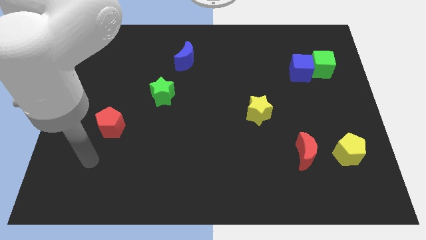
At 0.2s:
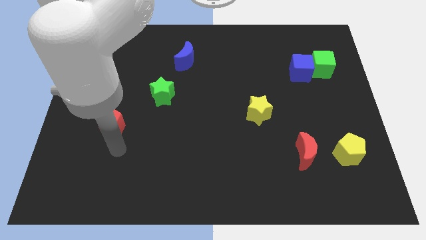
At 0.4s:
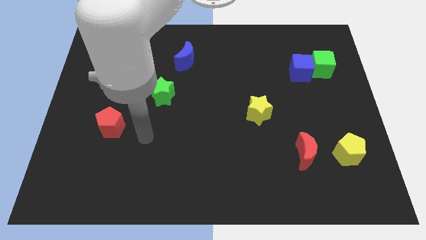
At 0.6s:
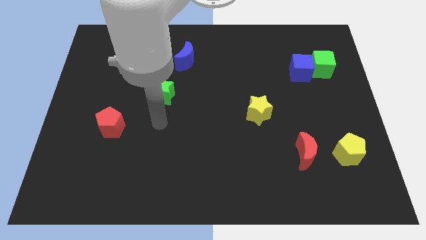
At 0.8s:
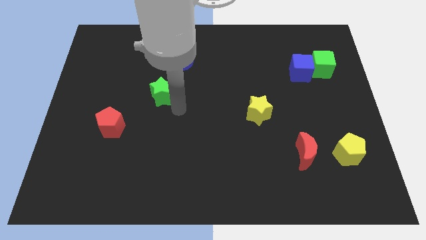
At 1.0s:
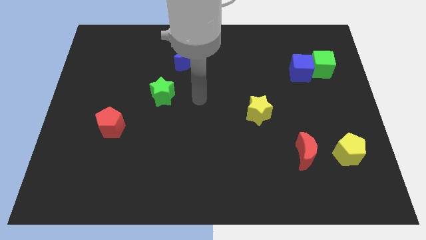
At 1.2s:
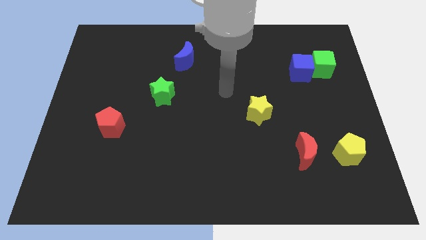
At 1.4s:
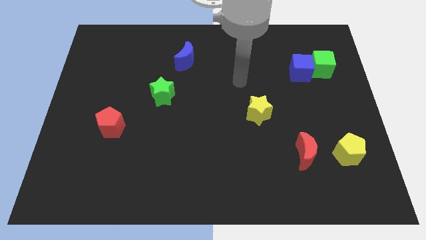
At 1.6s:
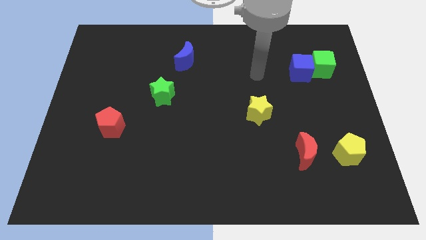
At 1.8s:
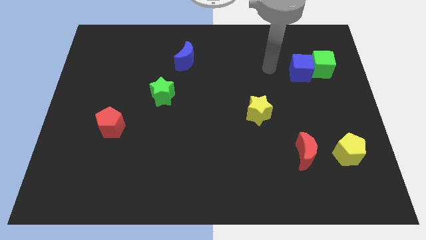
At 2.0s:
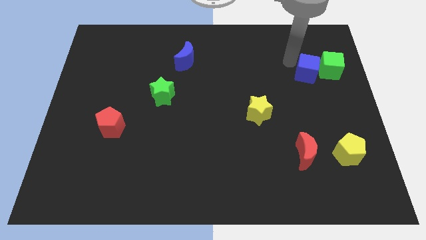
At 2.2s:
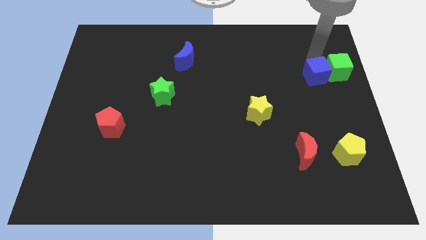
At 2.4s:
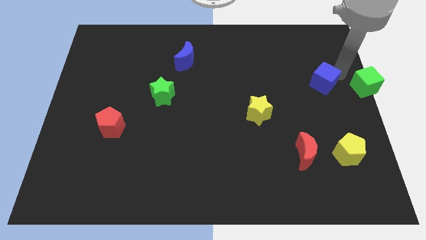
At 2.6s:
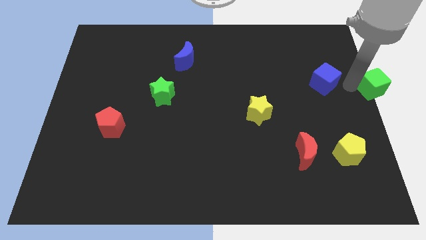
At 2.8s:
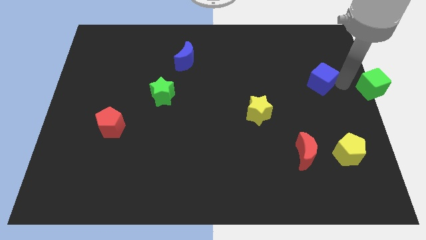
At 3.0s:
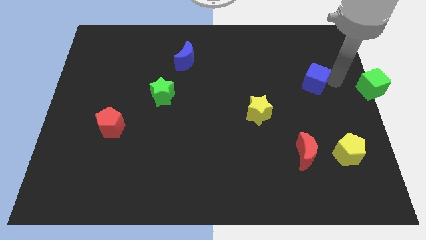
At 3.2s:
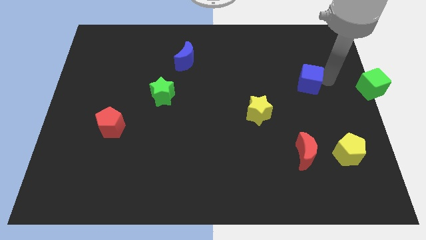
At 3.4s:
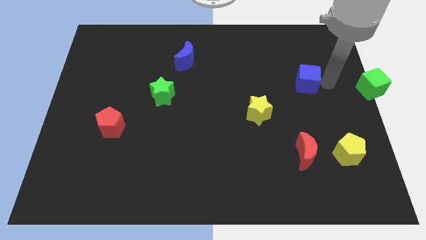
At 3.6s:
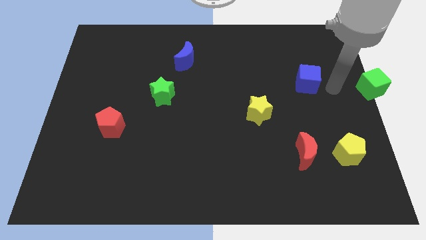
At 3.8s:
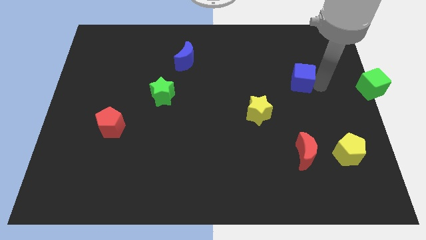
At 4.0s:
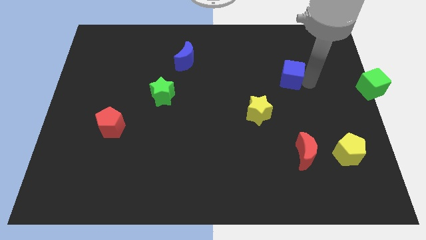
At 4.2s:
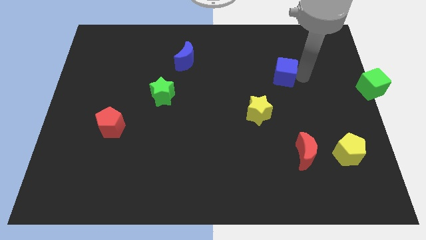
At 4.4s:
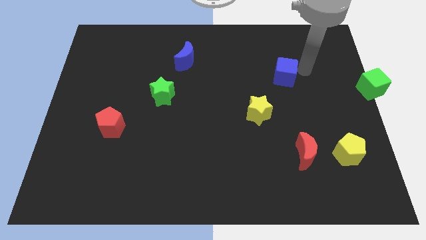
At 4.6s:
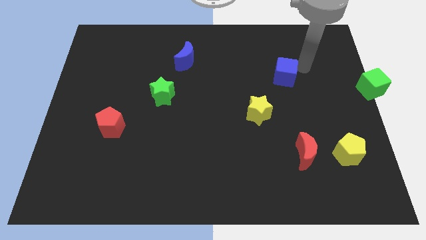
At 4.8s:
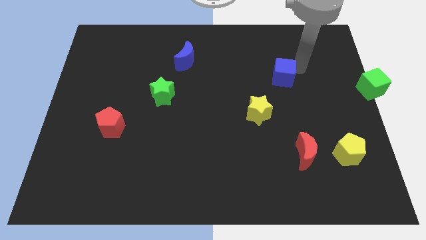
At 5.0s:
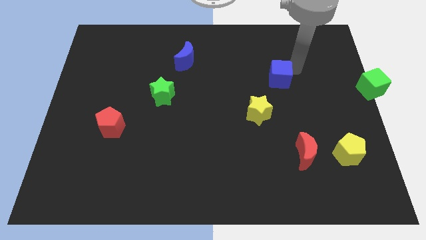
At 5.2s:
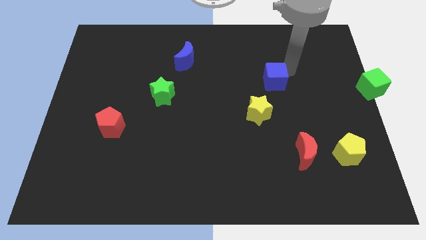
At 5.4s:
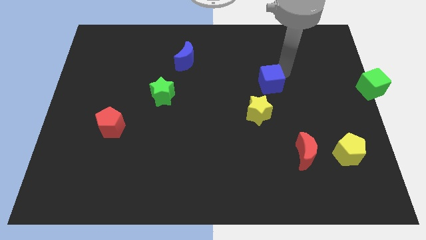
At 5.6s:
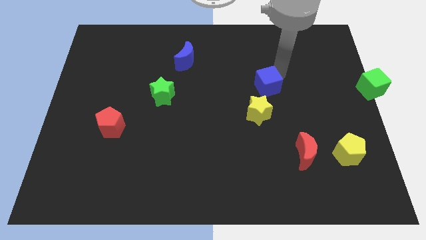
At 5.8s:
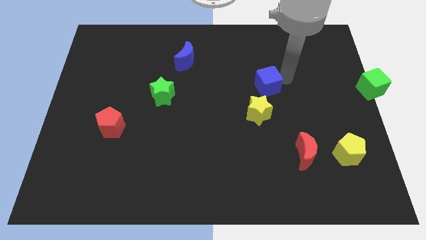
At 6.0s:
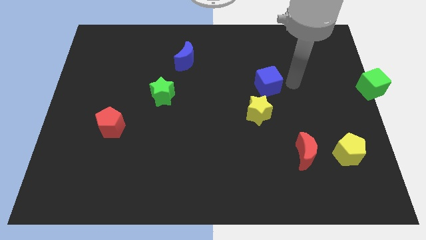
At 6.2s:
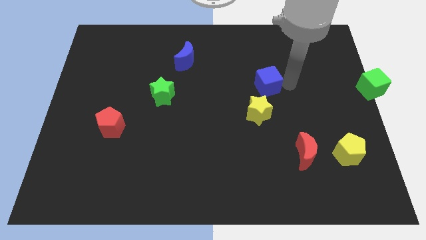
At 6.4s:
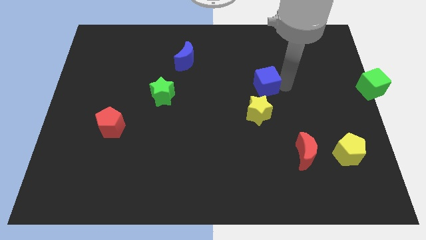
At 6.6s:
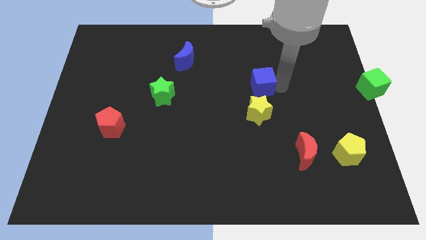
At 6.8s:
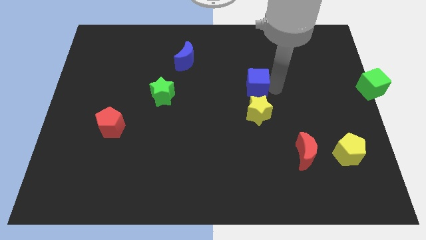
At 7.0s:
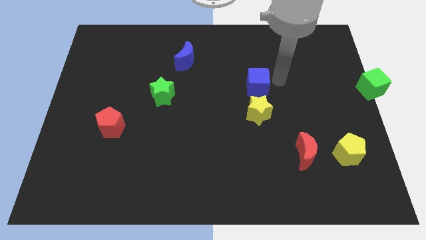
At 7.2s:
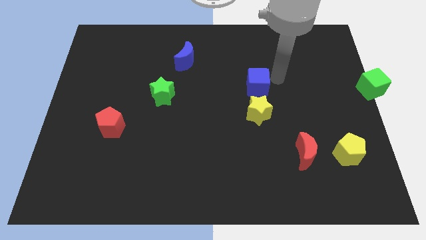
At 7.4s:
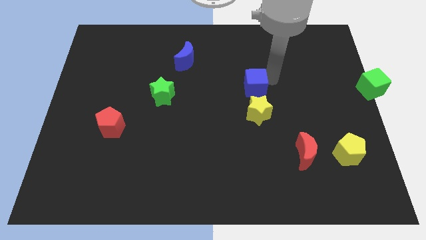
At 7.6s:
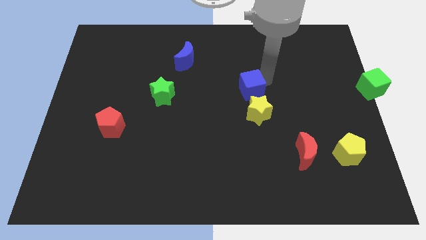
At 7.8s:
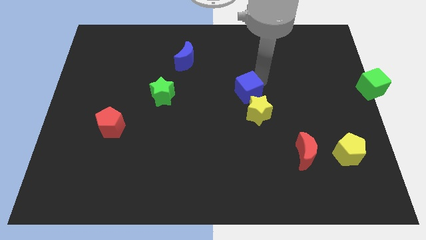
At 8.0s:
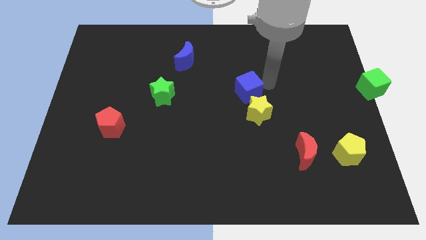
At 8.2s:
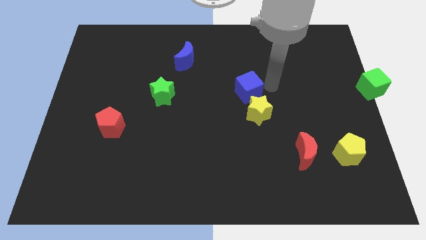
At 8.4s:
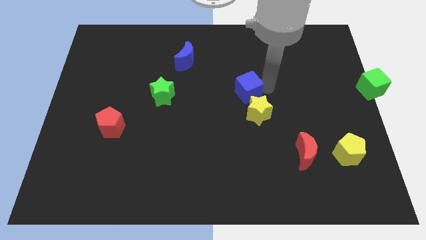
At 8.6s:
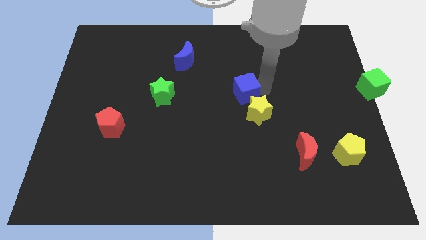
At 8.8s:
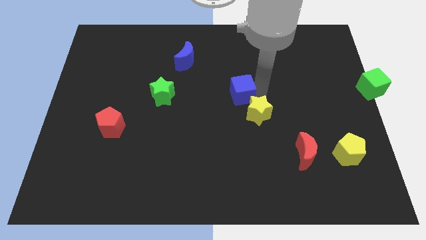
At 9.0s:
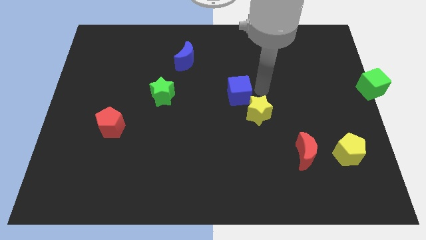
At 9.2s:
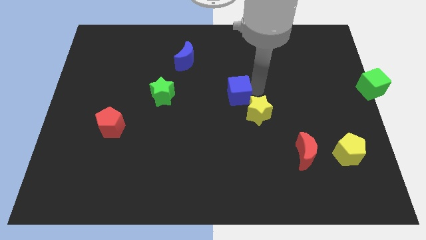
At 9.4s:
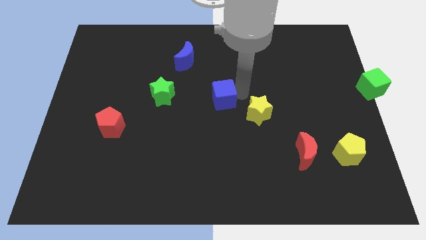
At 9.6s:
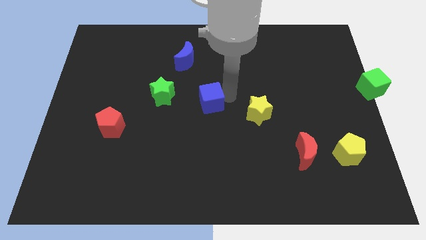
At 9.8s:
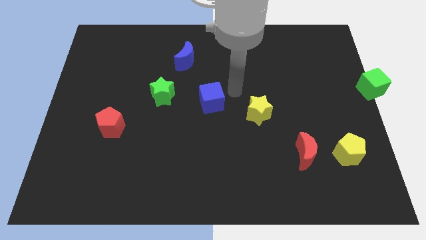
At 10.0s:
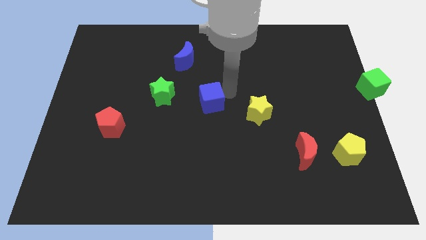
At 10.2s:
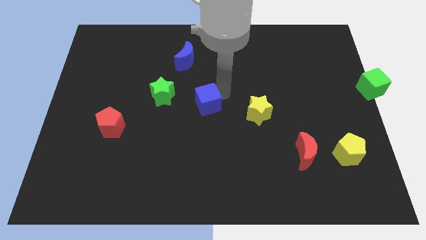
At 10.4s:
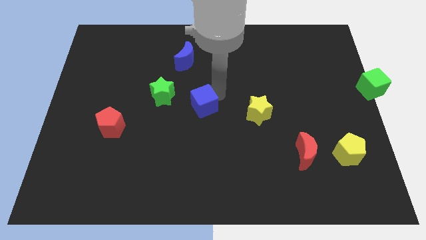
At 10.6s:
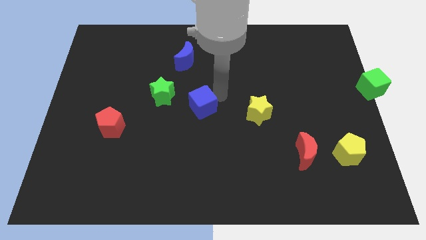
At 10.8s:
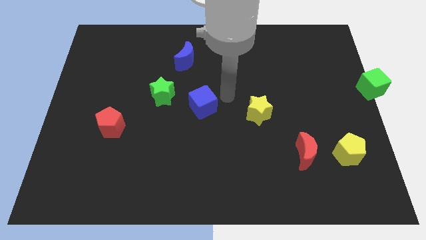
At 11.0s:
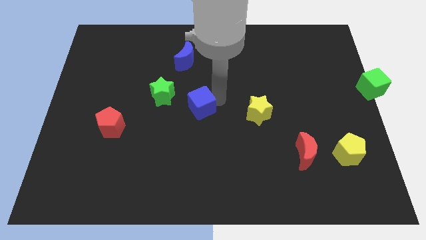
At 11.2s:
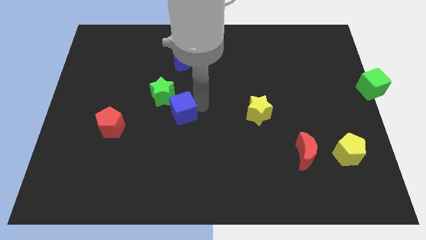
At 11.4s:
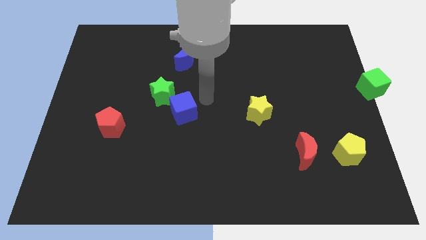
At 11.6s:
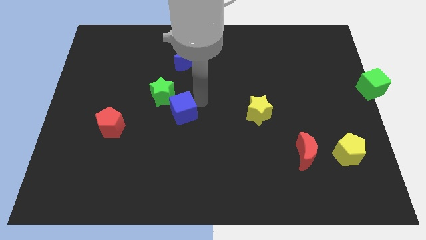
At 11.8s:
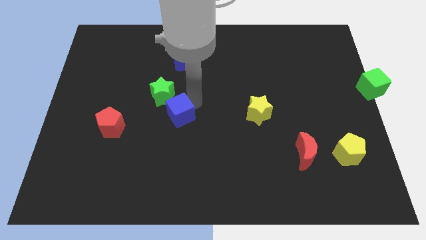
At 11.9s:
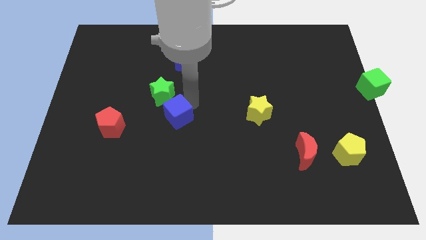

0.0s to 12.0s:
move the blue cube to the right side of the red pentagon
